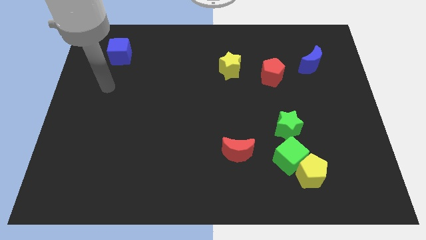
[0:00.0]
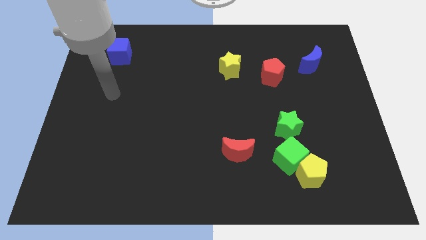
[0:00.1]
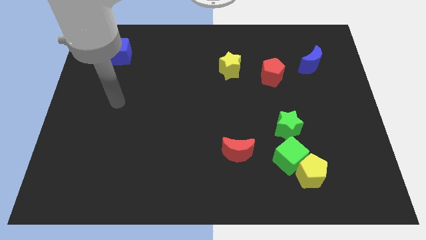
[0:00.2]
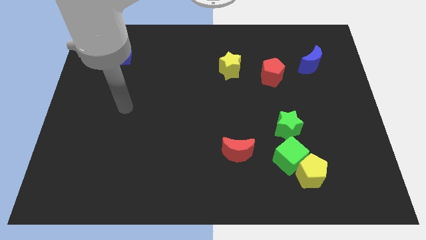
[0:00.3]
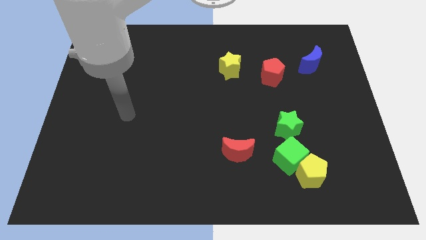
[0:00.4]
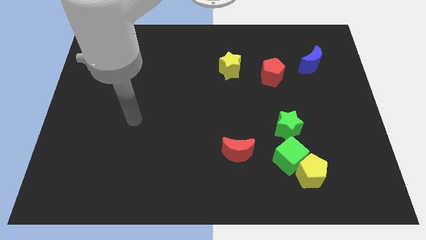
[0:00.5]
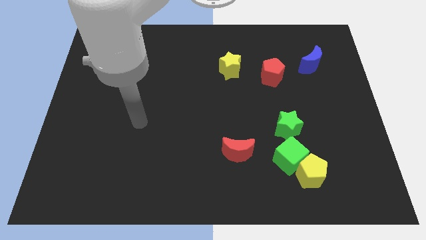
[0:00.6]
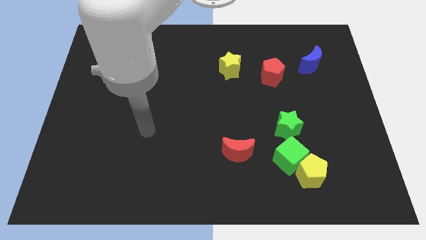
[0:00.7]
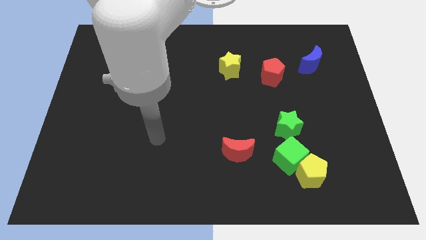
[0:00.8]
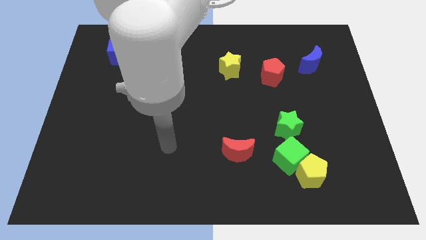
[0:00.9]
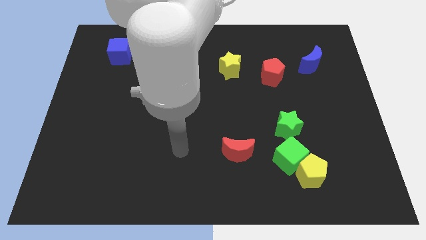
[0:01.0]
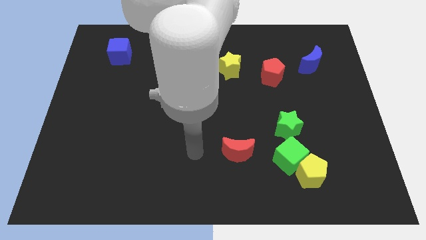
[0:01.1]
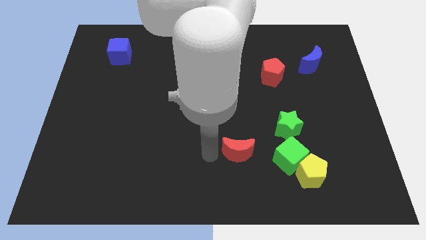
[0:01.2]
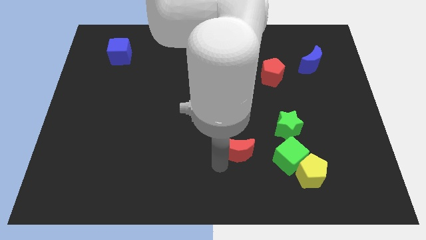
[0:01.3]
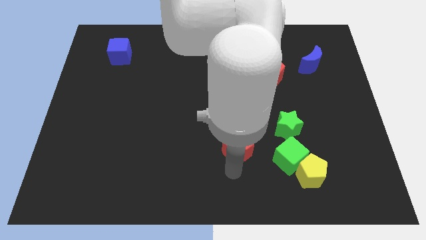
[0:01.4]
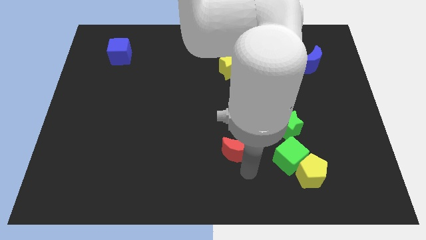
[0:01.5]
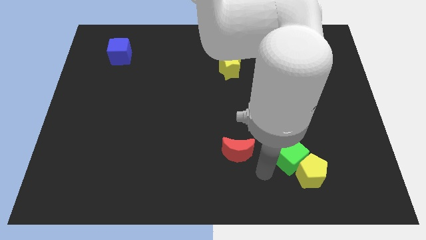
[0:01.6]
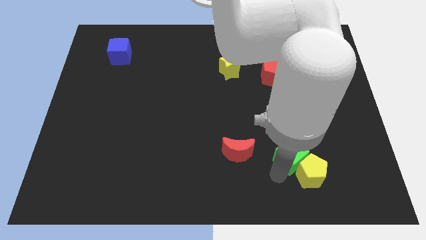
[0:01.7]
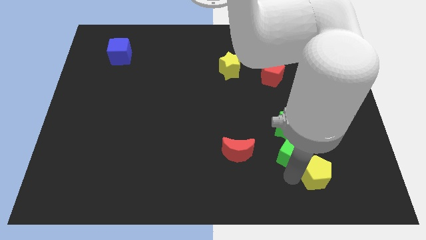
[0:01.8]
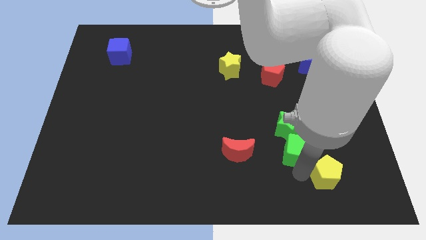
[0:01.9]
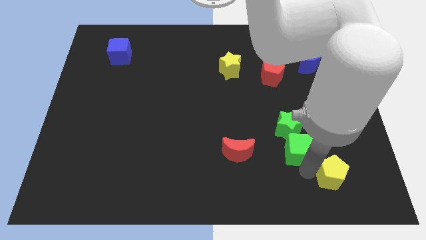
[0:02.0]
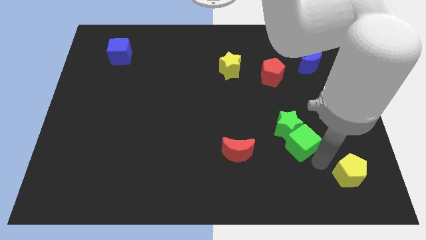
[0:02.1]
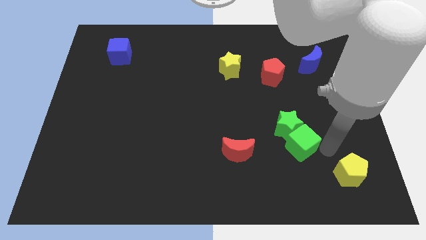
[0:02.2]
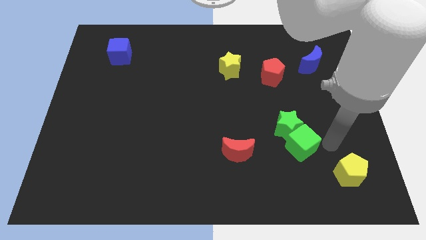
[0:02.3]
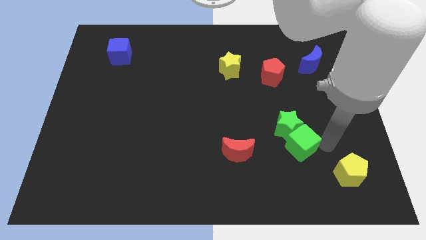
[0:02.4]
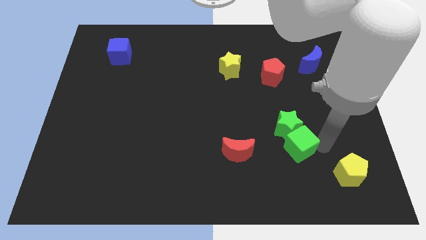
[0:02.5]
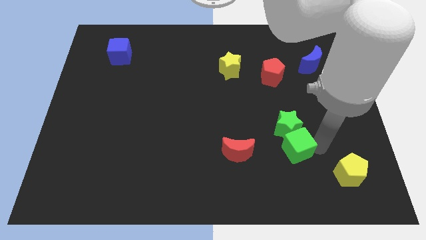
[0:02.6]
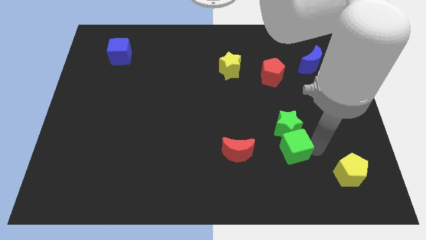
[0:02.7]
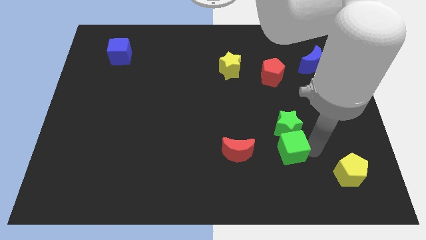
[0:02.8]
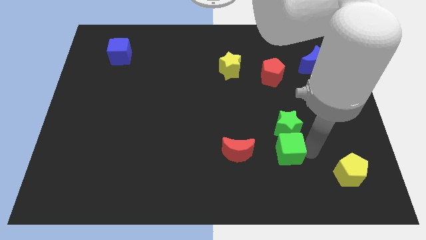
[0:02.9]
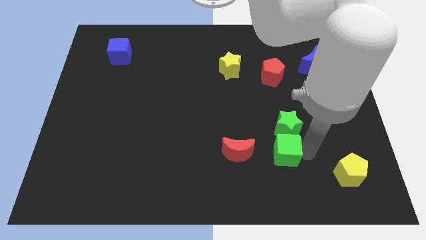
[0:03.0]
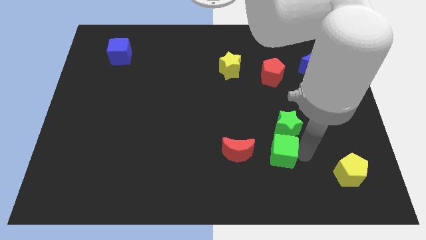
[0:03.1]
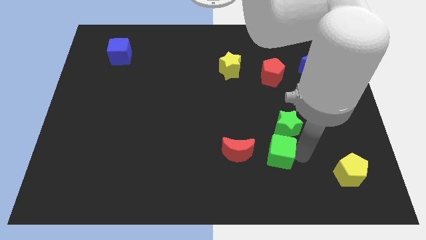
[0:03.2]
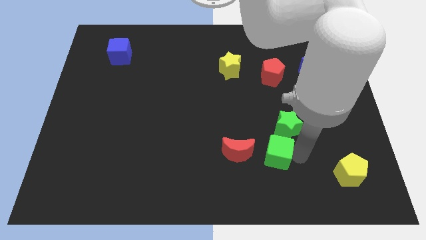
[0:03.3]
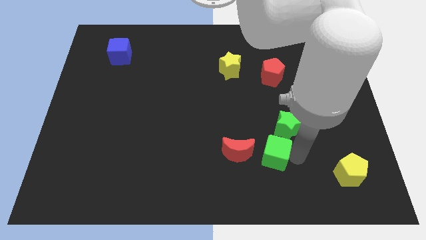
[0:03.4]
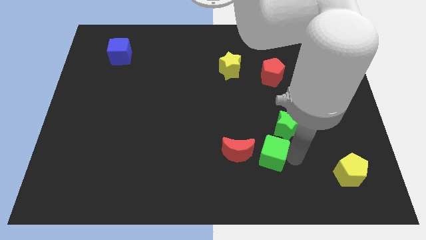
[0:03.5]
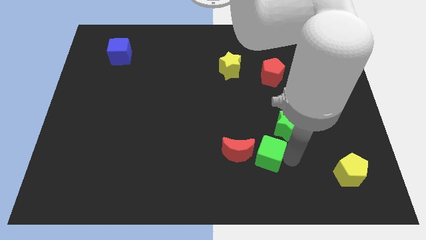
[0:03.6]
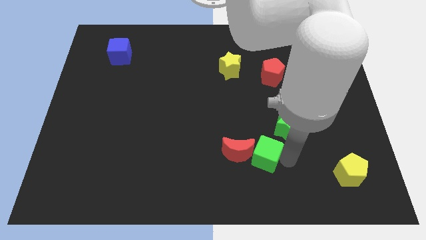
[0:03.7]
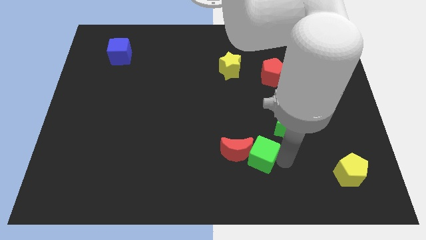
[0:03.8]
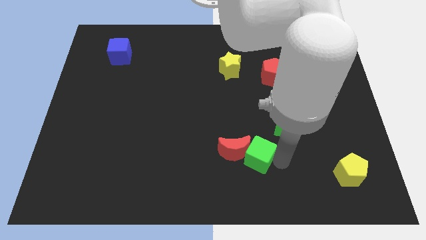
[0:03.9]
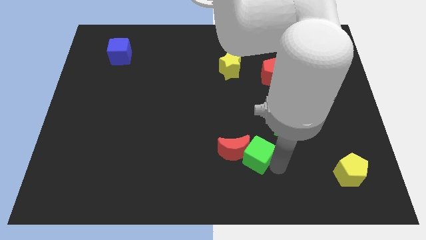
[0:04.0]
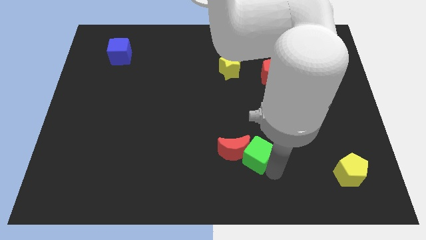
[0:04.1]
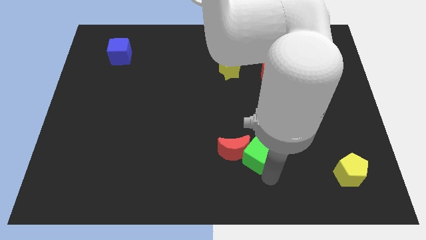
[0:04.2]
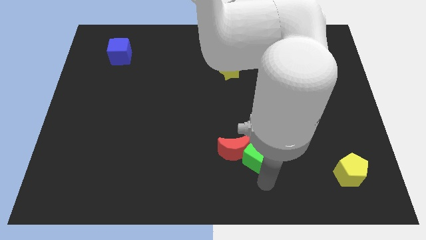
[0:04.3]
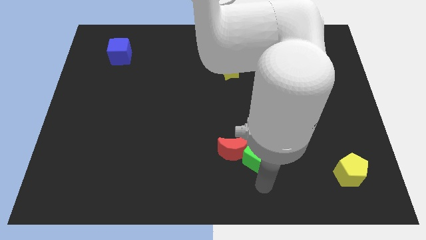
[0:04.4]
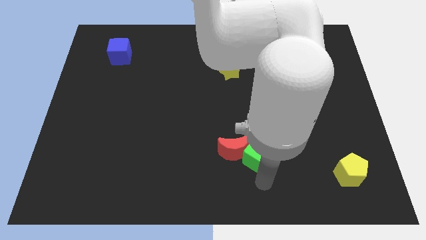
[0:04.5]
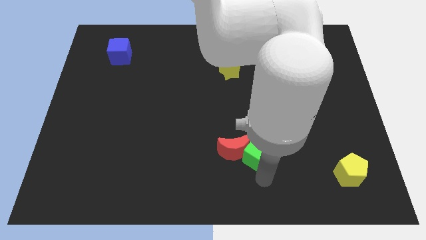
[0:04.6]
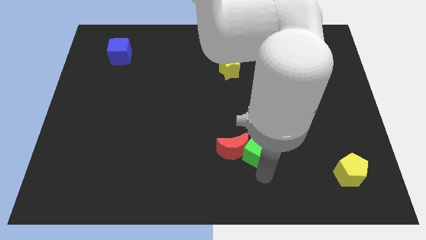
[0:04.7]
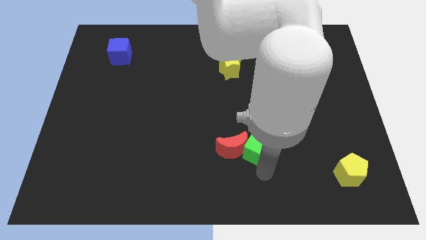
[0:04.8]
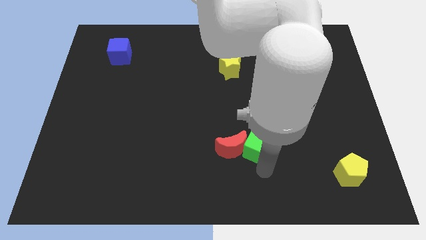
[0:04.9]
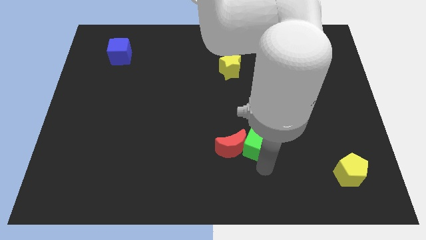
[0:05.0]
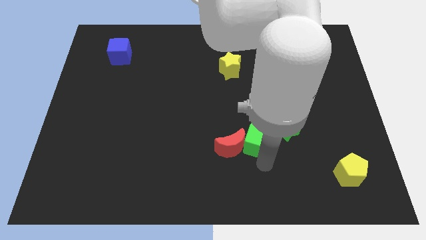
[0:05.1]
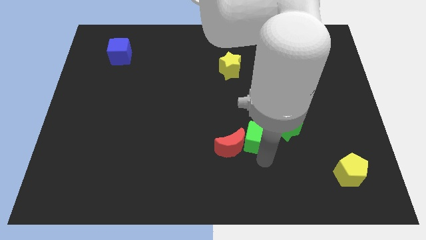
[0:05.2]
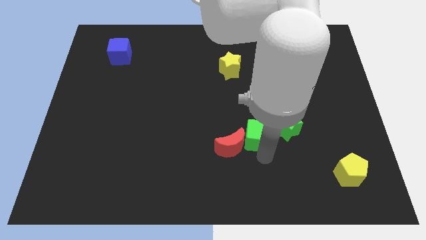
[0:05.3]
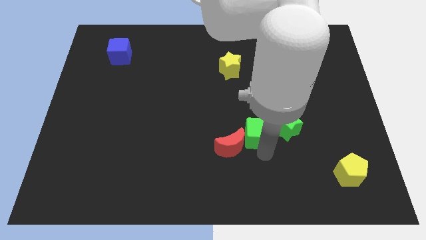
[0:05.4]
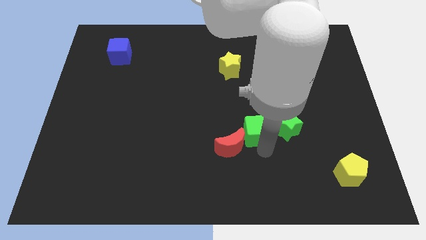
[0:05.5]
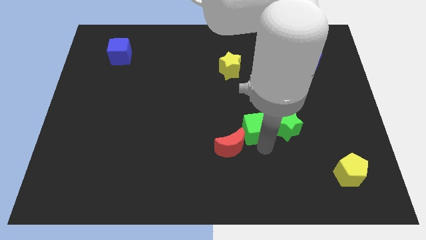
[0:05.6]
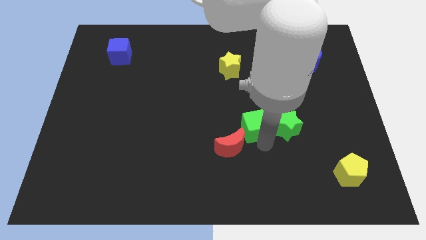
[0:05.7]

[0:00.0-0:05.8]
slide the green cube to the middle

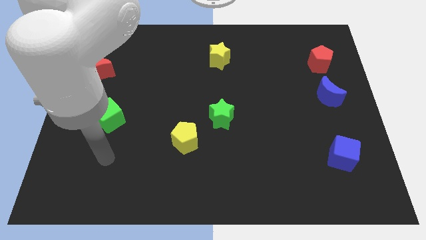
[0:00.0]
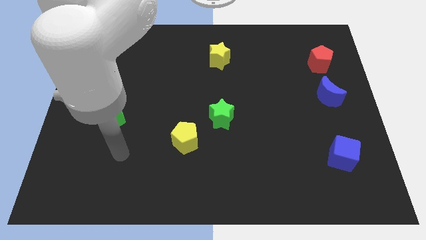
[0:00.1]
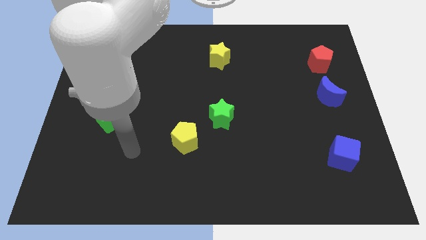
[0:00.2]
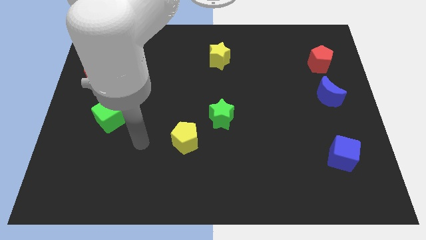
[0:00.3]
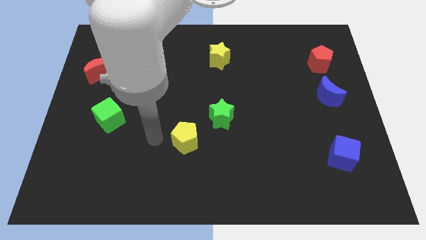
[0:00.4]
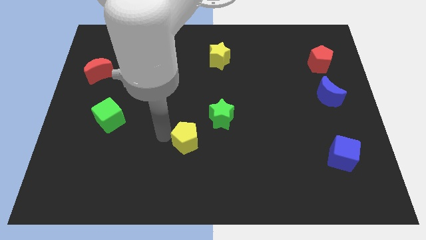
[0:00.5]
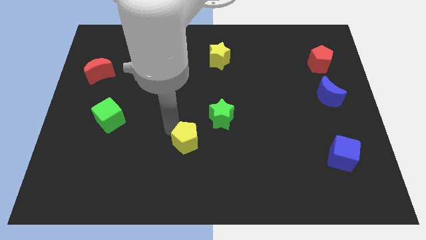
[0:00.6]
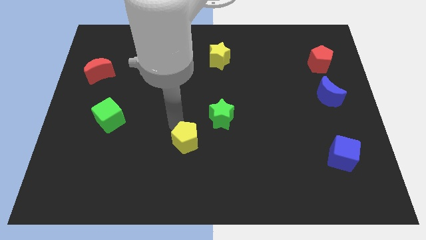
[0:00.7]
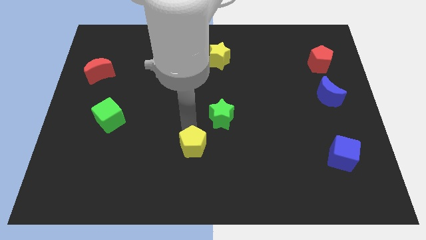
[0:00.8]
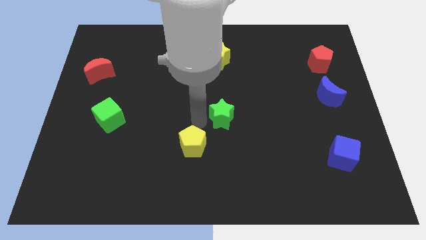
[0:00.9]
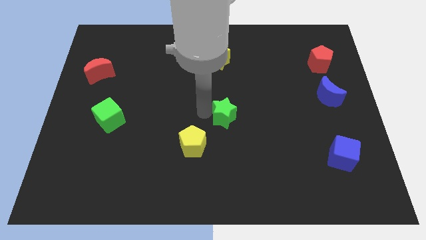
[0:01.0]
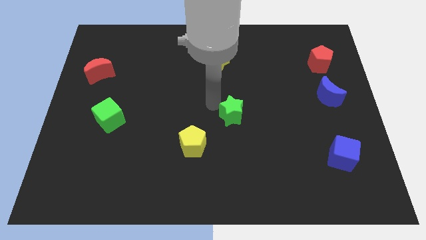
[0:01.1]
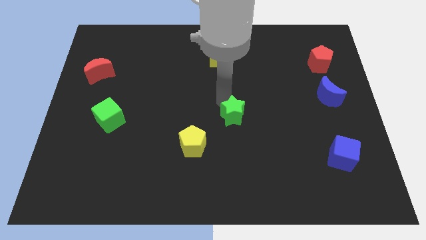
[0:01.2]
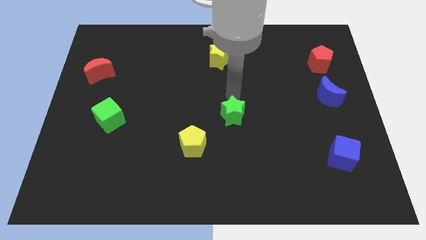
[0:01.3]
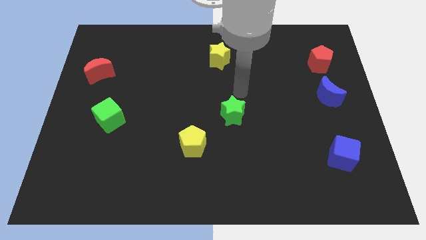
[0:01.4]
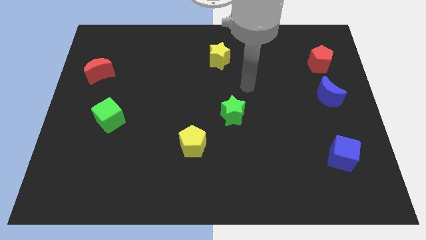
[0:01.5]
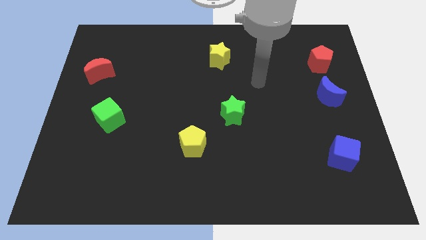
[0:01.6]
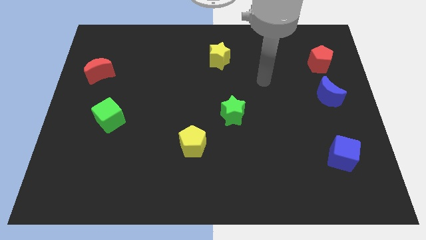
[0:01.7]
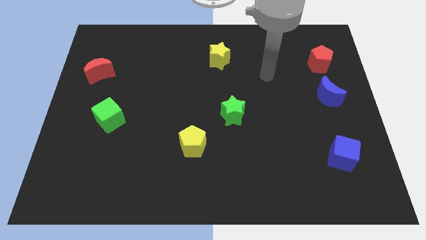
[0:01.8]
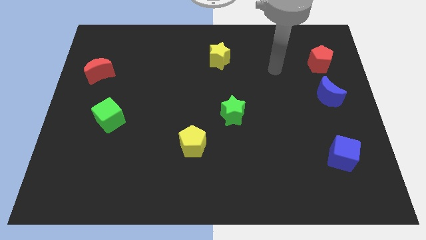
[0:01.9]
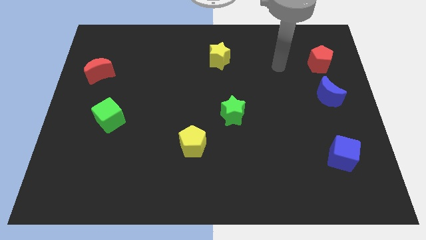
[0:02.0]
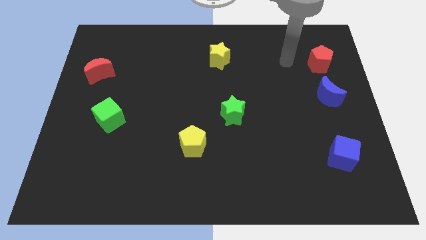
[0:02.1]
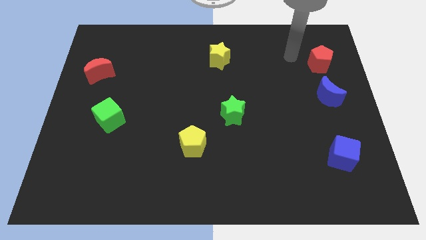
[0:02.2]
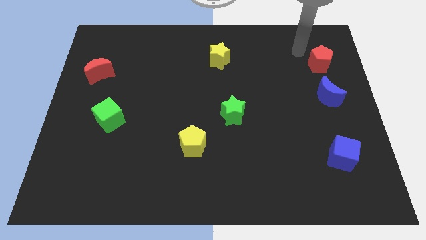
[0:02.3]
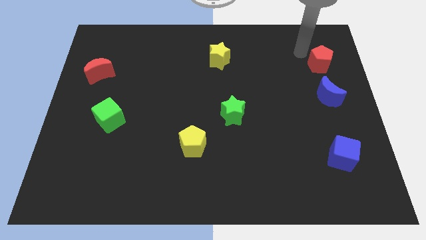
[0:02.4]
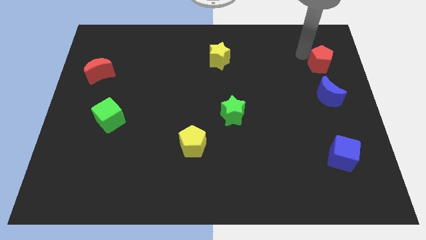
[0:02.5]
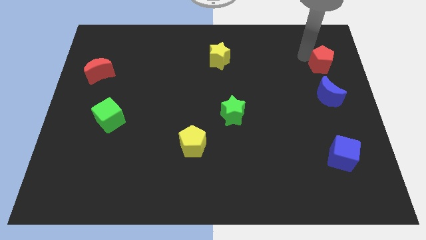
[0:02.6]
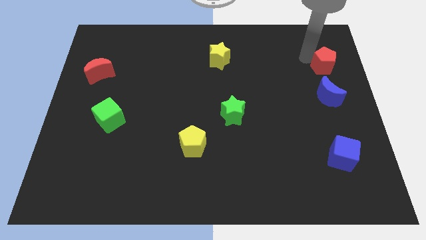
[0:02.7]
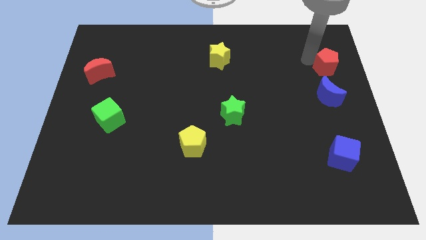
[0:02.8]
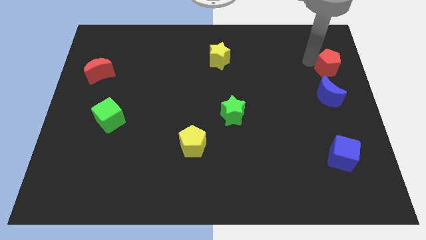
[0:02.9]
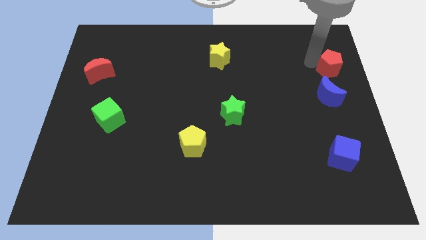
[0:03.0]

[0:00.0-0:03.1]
move the red pentagon to the right side
